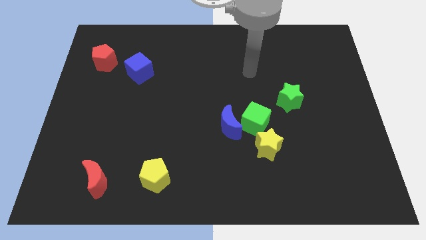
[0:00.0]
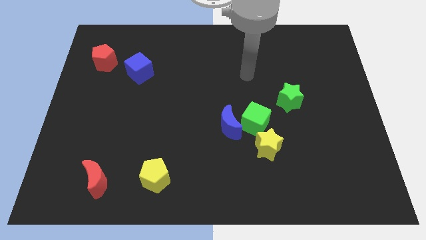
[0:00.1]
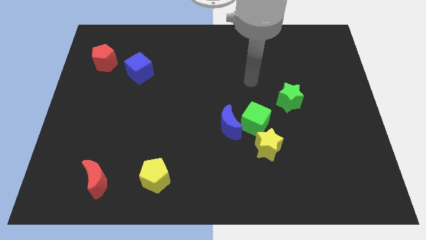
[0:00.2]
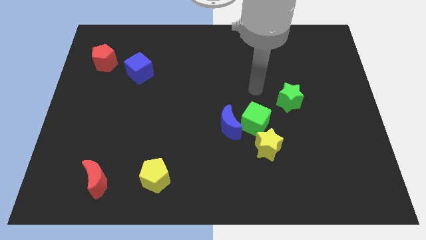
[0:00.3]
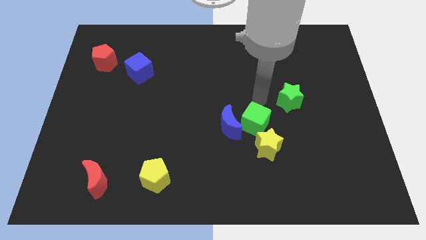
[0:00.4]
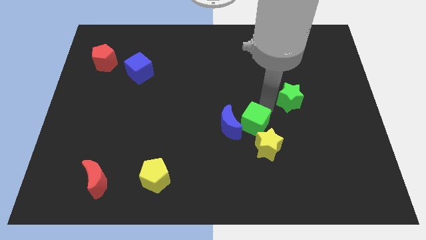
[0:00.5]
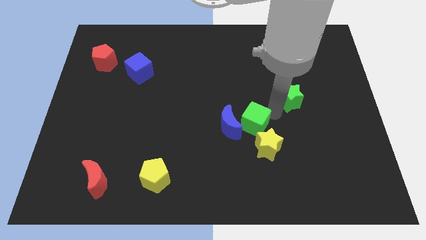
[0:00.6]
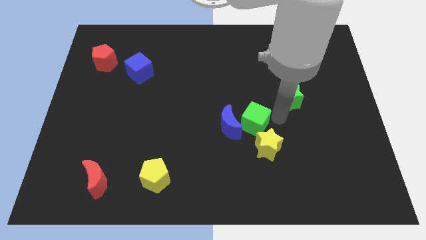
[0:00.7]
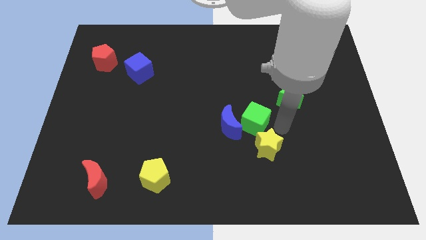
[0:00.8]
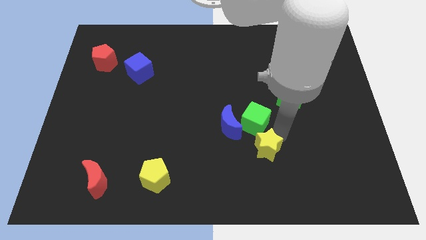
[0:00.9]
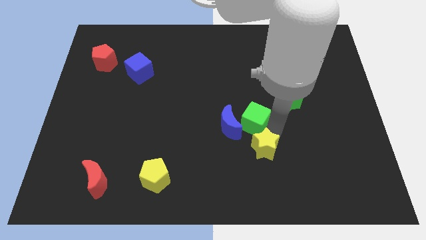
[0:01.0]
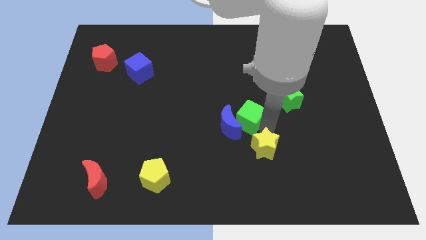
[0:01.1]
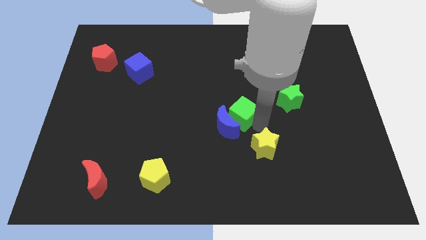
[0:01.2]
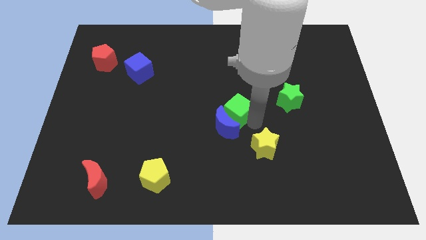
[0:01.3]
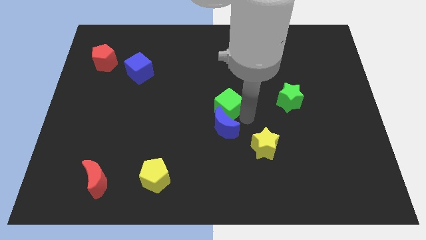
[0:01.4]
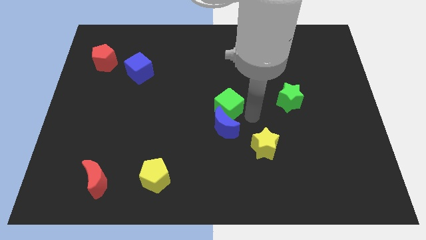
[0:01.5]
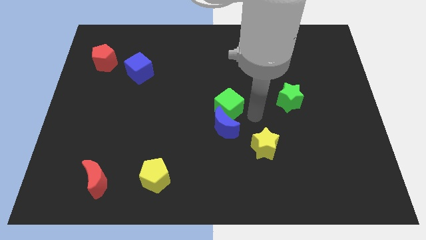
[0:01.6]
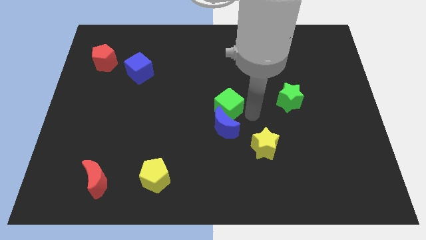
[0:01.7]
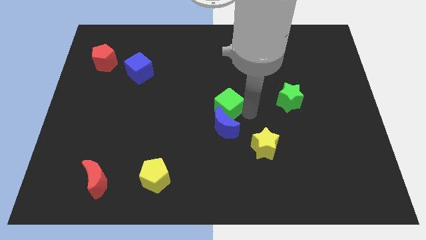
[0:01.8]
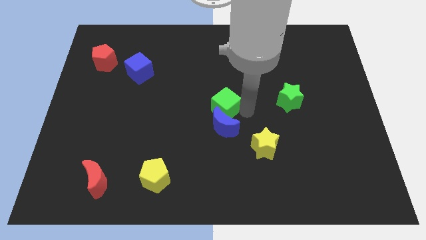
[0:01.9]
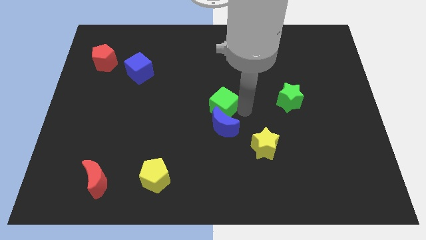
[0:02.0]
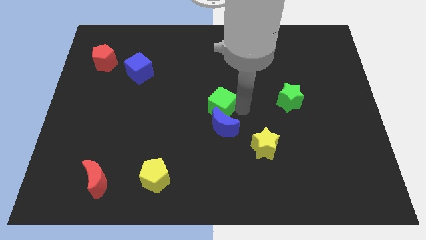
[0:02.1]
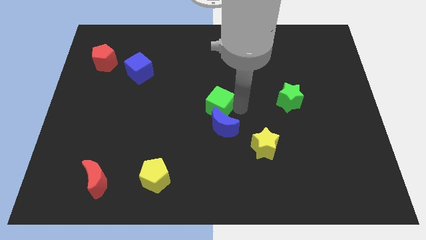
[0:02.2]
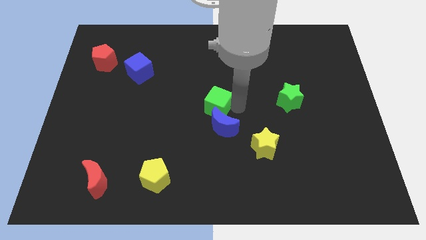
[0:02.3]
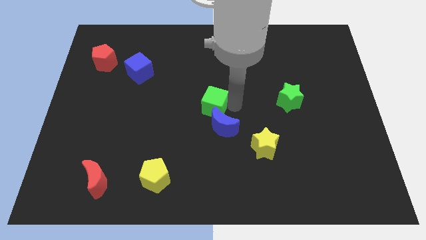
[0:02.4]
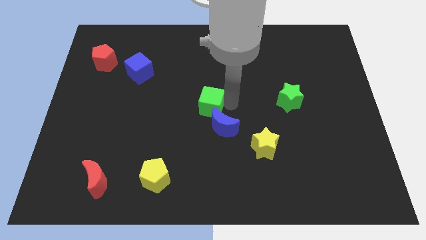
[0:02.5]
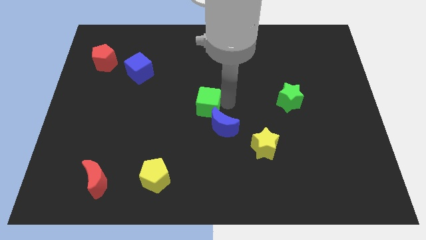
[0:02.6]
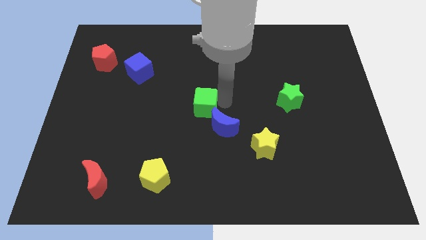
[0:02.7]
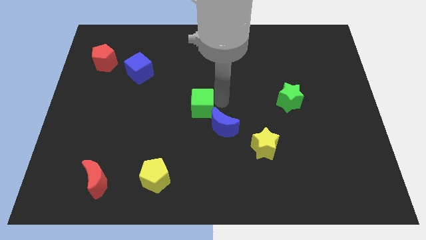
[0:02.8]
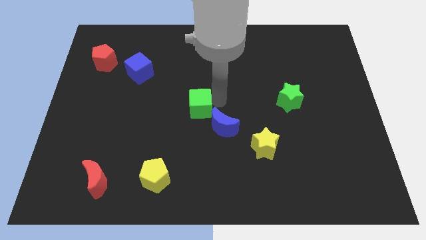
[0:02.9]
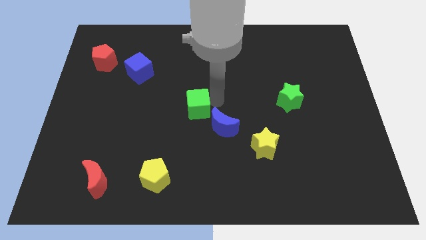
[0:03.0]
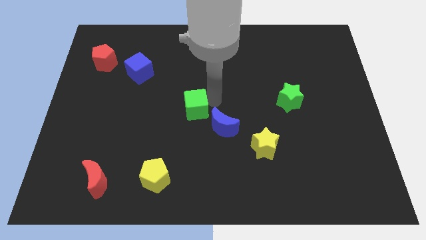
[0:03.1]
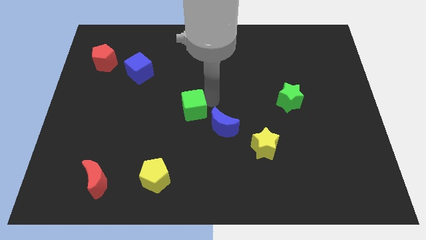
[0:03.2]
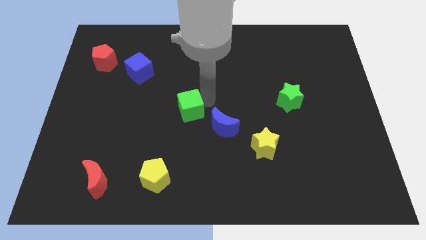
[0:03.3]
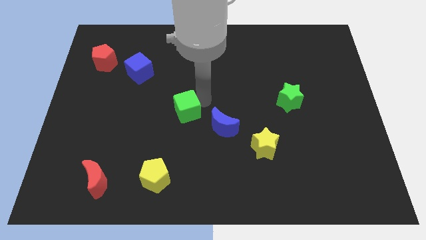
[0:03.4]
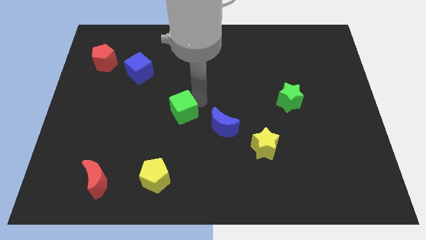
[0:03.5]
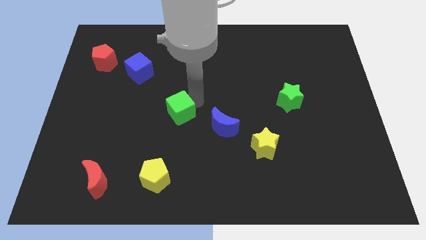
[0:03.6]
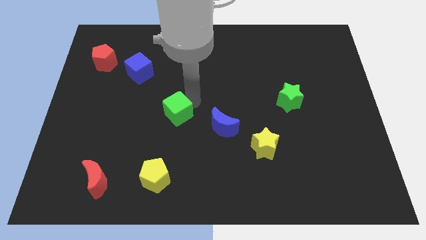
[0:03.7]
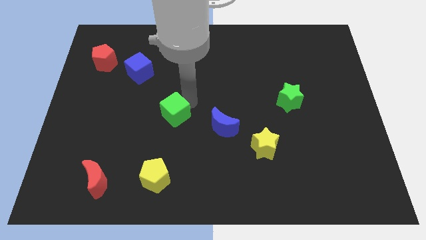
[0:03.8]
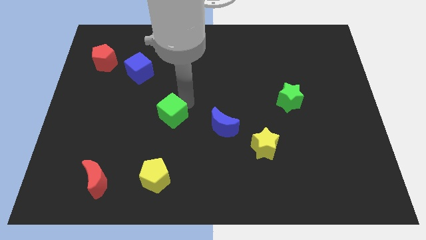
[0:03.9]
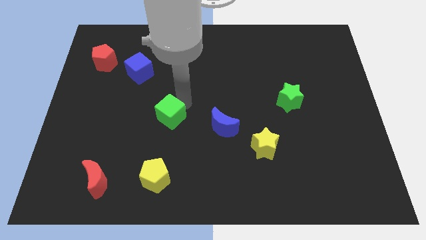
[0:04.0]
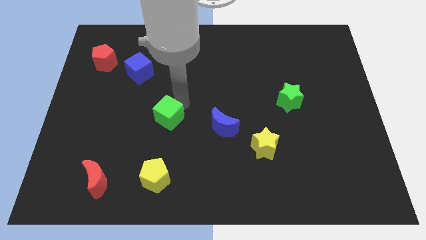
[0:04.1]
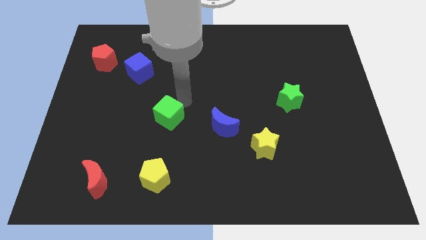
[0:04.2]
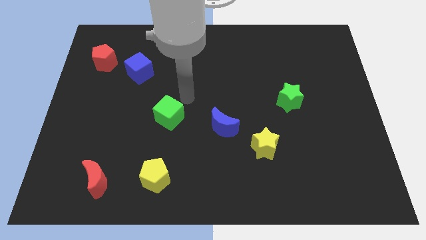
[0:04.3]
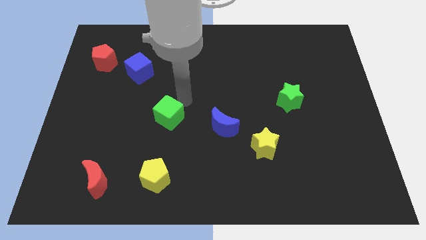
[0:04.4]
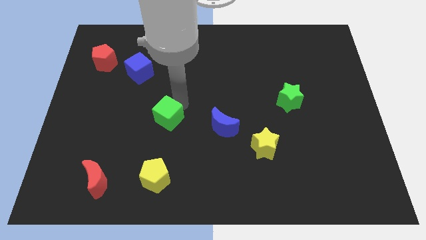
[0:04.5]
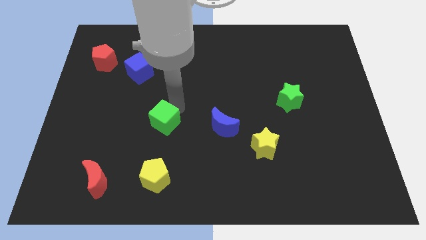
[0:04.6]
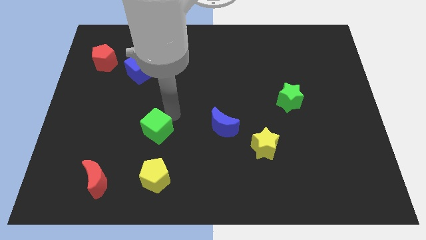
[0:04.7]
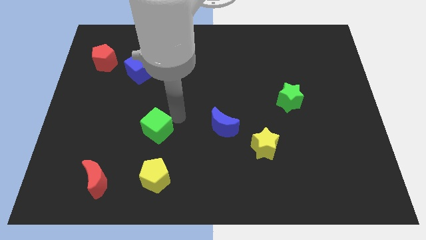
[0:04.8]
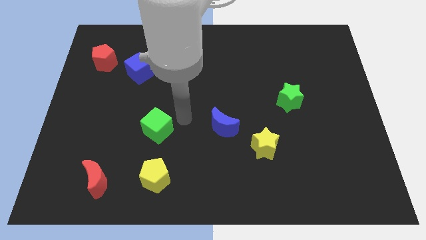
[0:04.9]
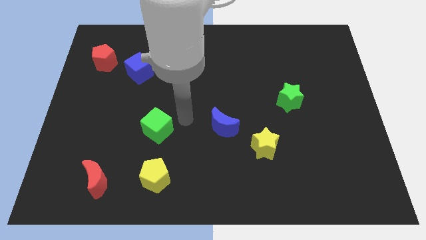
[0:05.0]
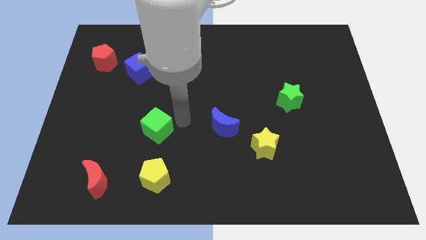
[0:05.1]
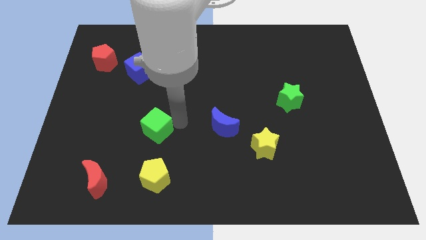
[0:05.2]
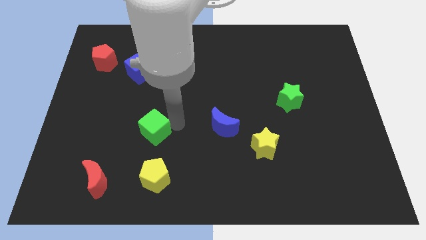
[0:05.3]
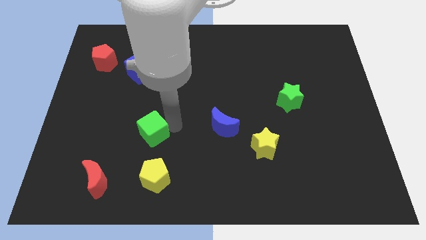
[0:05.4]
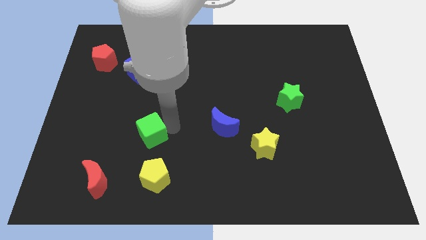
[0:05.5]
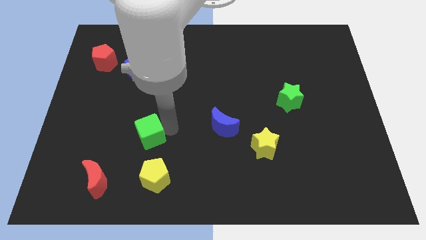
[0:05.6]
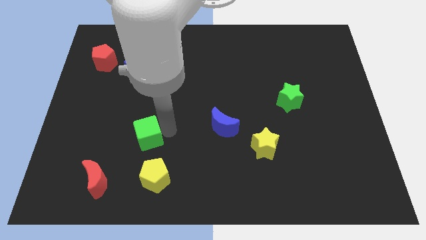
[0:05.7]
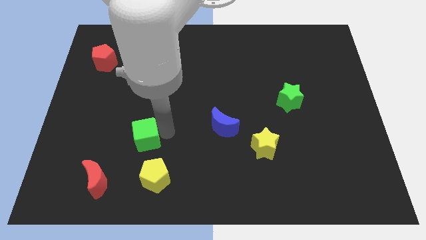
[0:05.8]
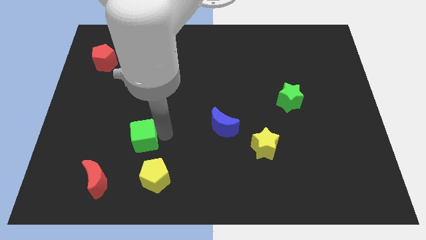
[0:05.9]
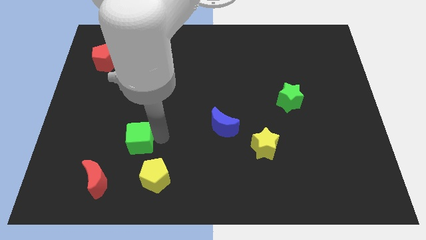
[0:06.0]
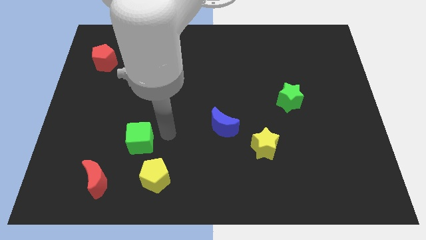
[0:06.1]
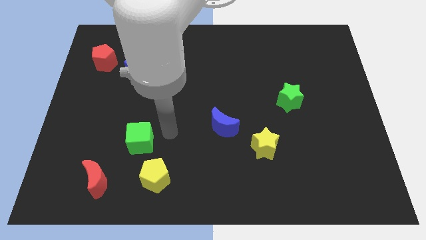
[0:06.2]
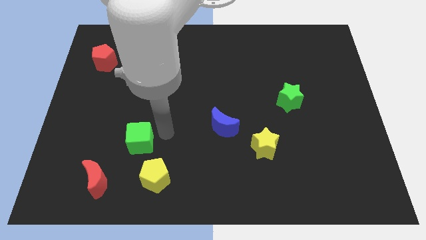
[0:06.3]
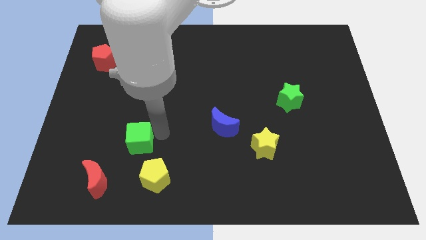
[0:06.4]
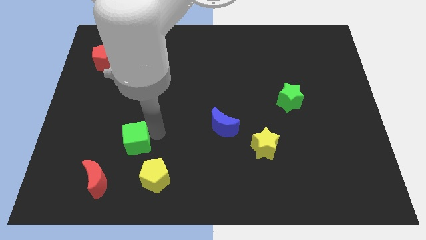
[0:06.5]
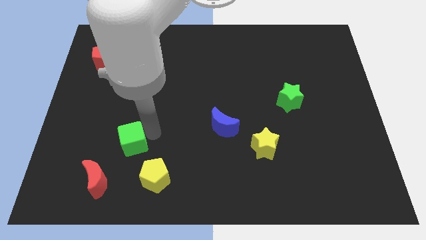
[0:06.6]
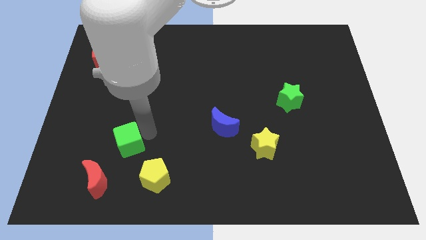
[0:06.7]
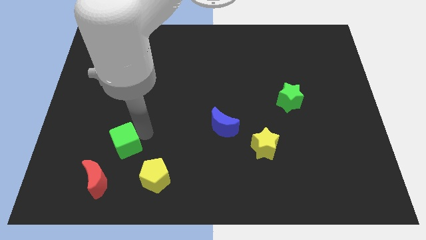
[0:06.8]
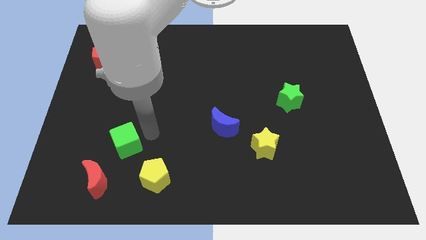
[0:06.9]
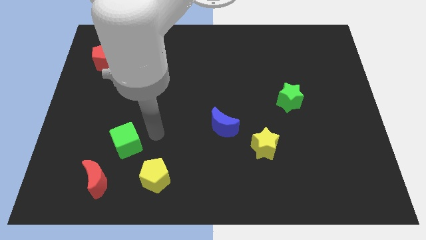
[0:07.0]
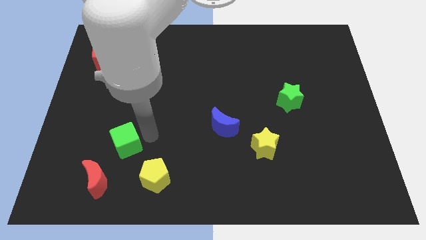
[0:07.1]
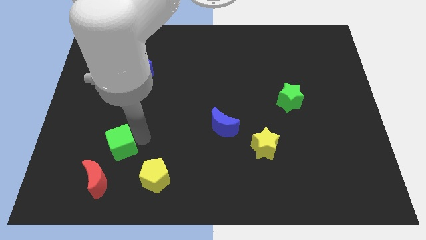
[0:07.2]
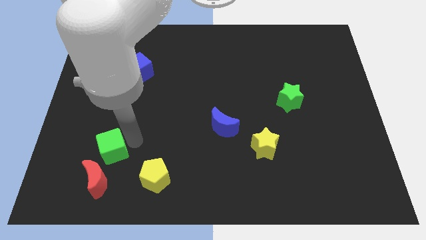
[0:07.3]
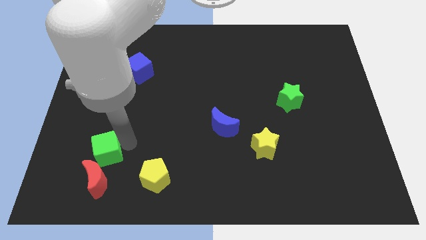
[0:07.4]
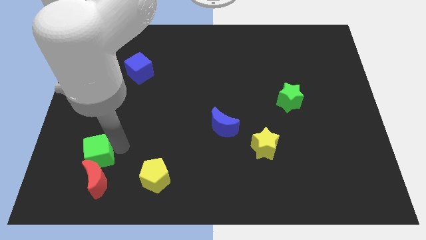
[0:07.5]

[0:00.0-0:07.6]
move the green cube to the top left of the red moon
